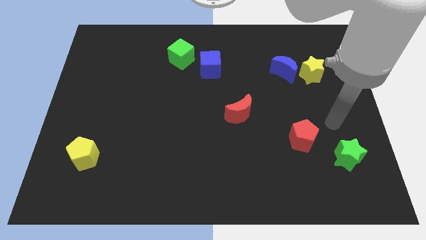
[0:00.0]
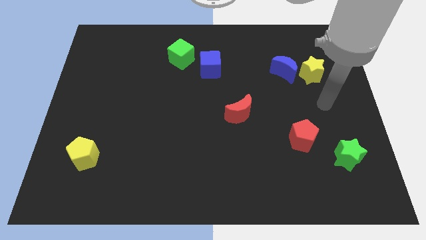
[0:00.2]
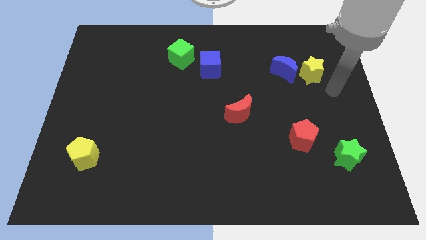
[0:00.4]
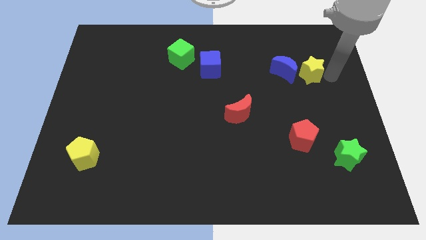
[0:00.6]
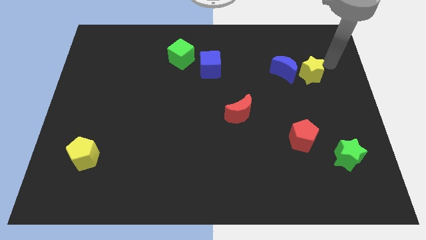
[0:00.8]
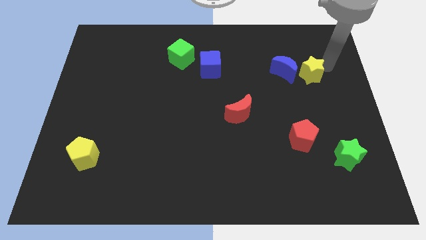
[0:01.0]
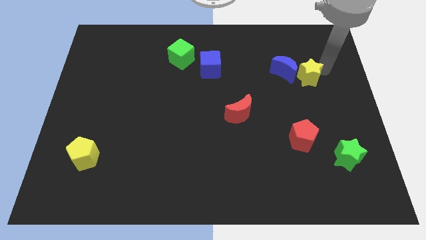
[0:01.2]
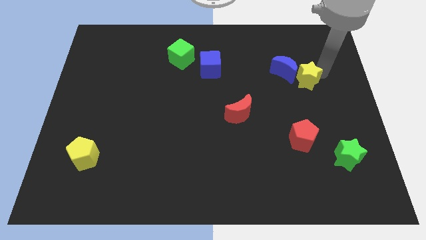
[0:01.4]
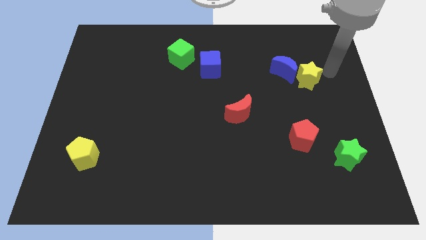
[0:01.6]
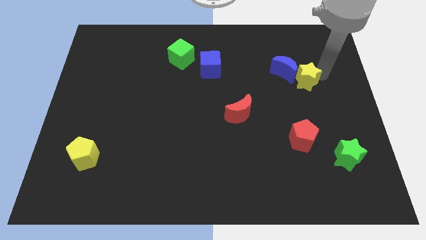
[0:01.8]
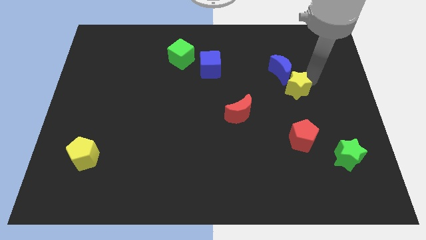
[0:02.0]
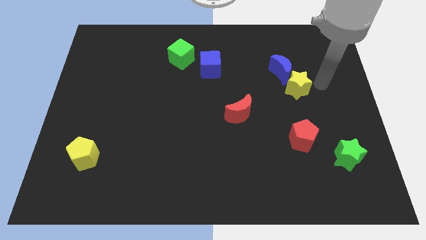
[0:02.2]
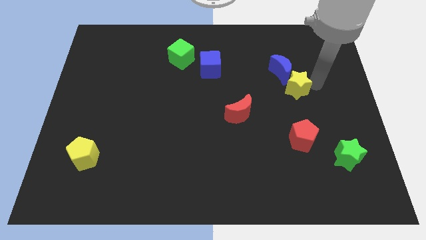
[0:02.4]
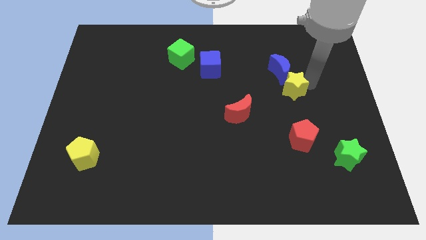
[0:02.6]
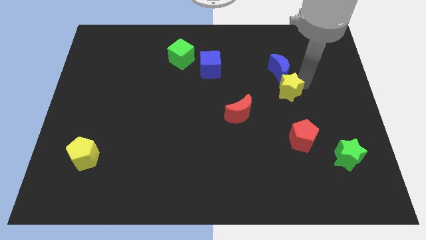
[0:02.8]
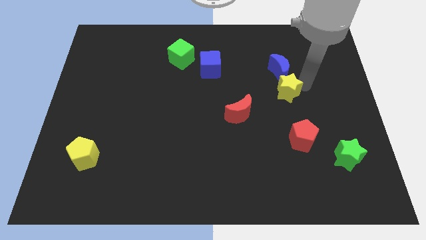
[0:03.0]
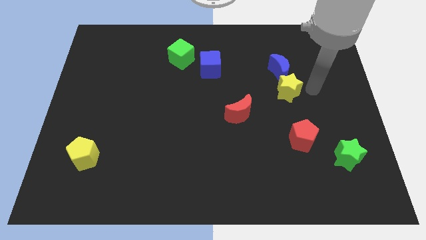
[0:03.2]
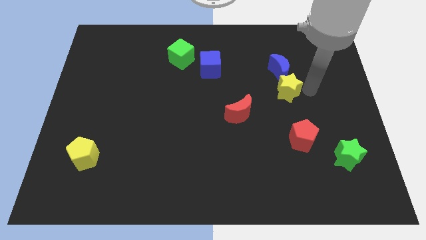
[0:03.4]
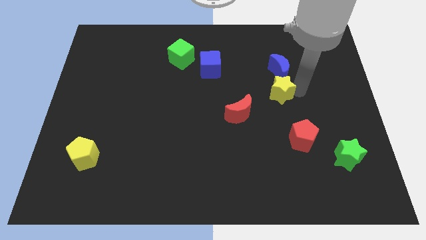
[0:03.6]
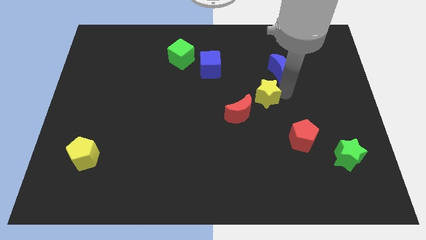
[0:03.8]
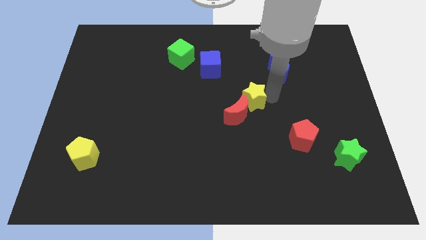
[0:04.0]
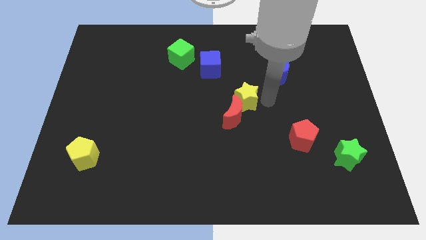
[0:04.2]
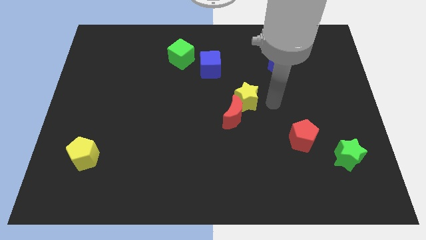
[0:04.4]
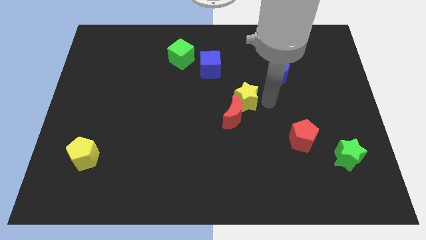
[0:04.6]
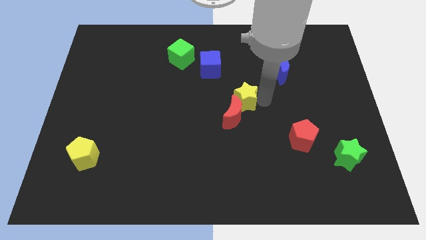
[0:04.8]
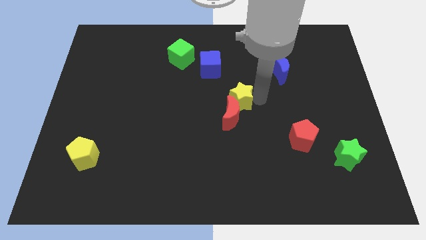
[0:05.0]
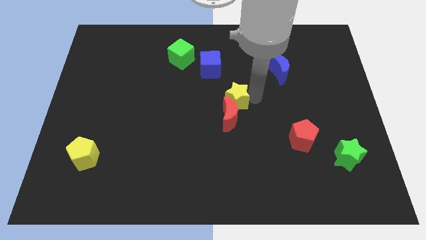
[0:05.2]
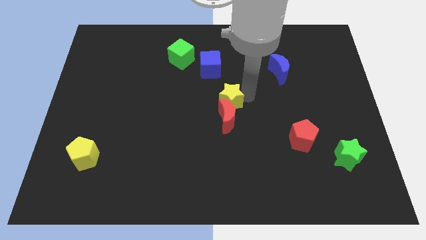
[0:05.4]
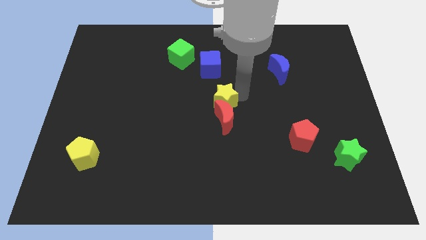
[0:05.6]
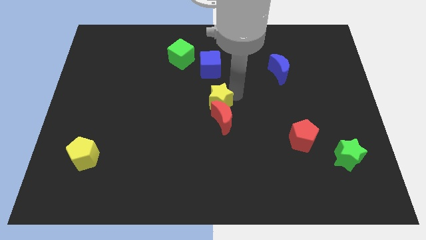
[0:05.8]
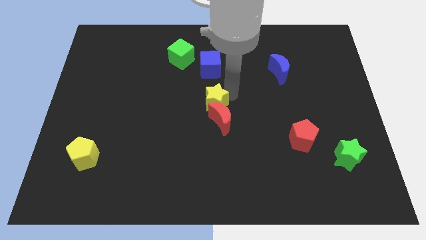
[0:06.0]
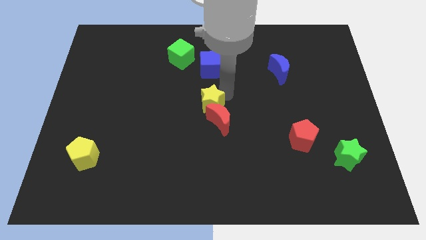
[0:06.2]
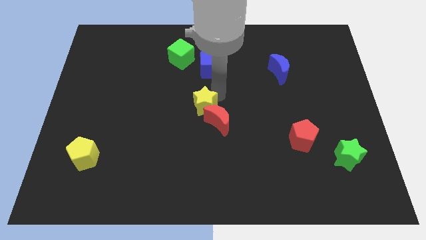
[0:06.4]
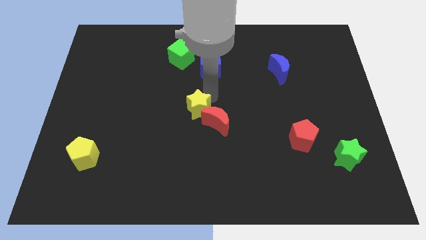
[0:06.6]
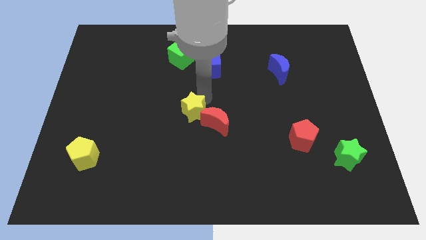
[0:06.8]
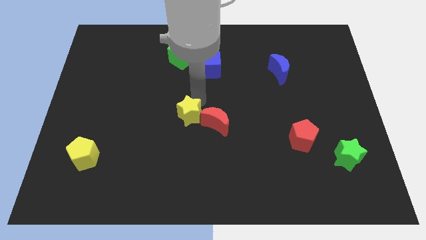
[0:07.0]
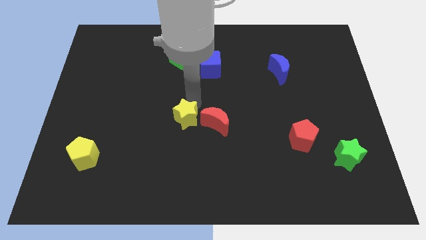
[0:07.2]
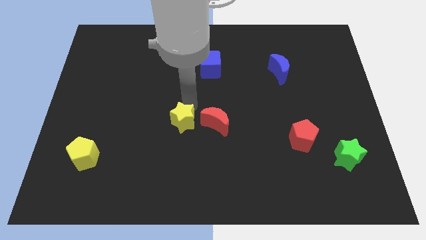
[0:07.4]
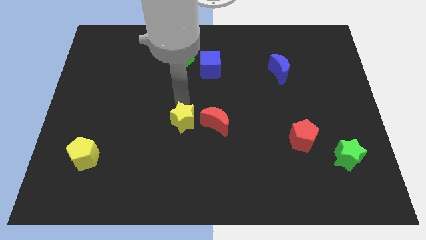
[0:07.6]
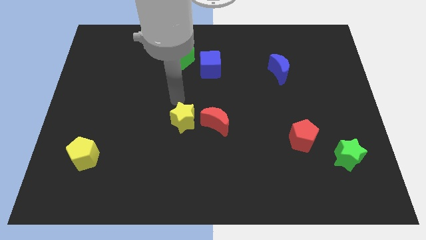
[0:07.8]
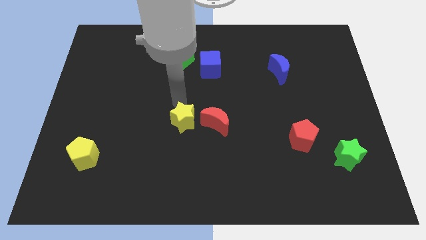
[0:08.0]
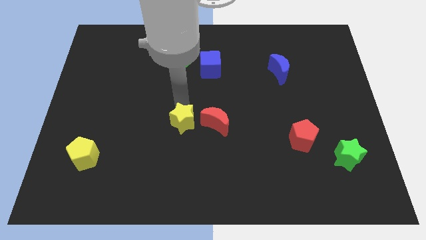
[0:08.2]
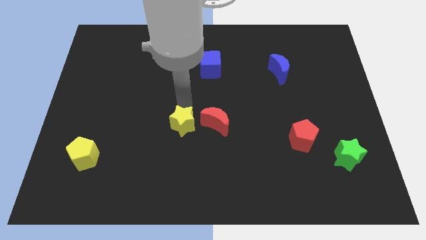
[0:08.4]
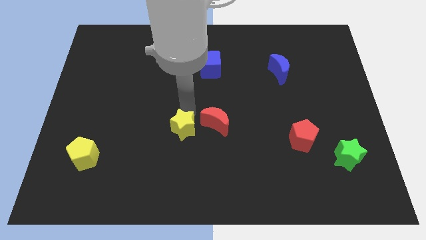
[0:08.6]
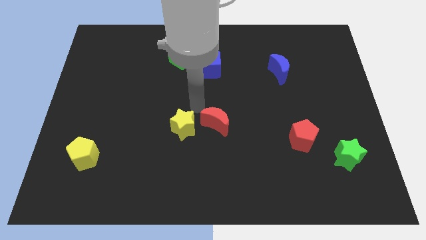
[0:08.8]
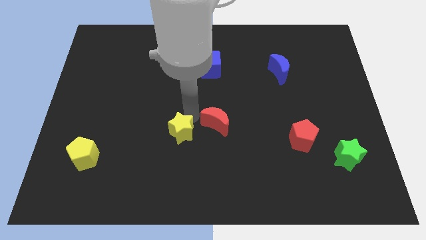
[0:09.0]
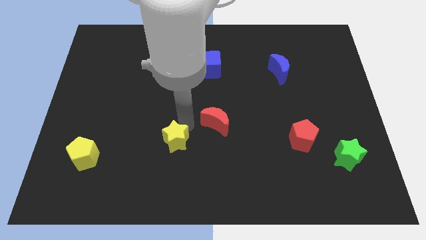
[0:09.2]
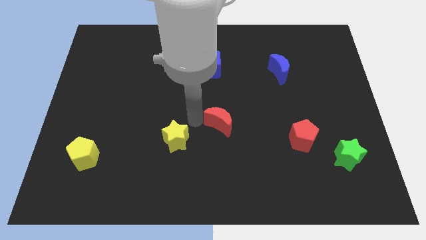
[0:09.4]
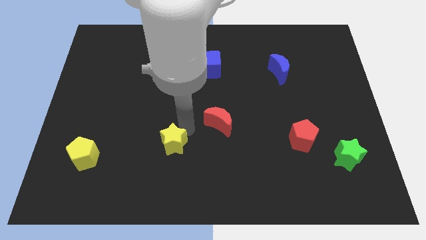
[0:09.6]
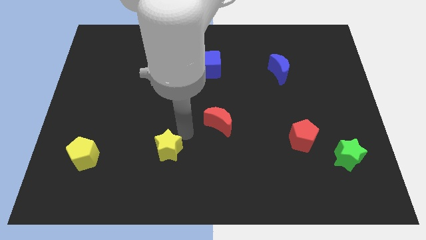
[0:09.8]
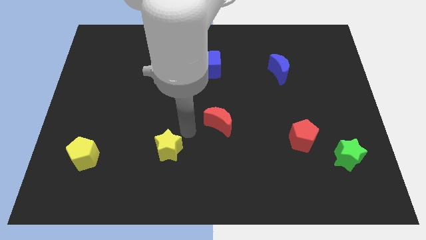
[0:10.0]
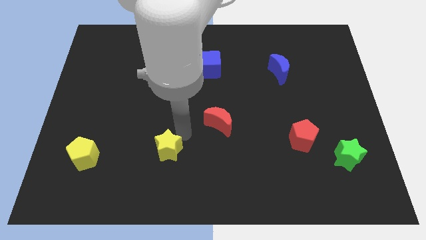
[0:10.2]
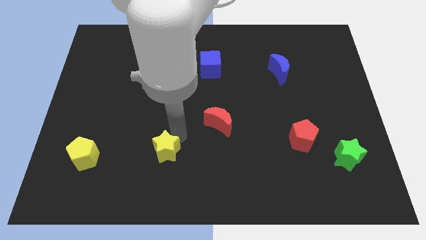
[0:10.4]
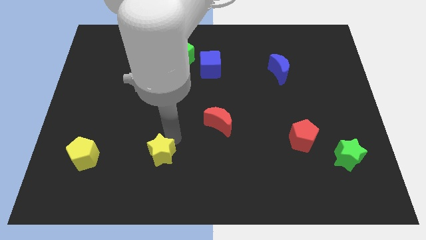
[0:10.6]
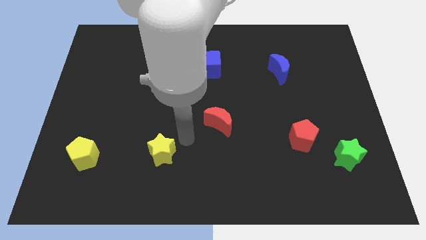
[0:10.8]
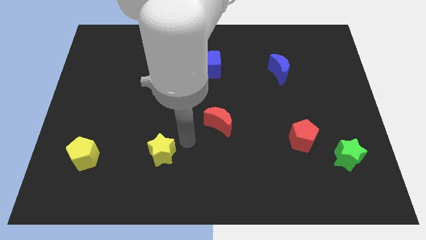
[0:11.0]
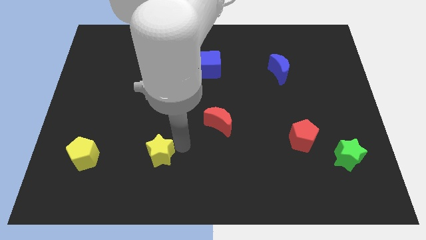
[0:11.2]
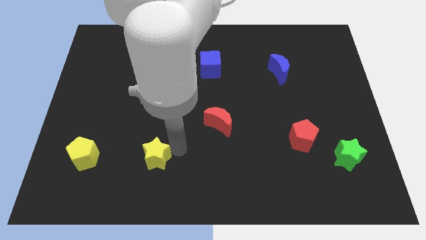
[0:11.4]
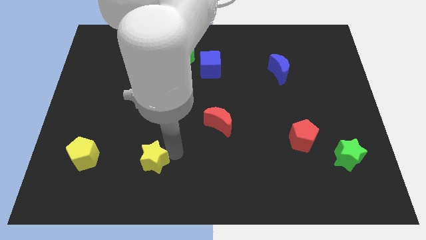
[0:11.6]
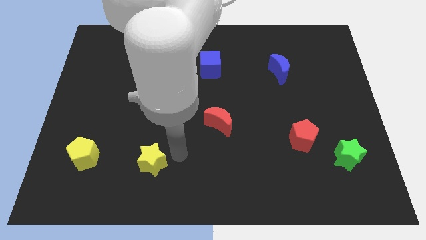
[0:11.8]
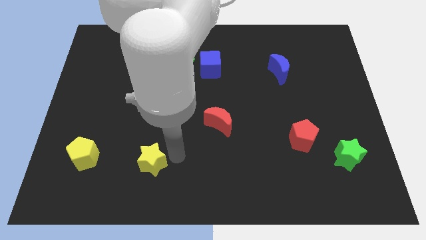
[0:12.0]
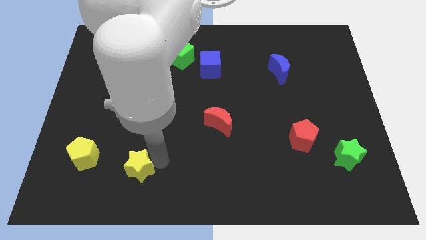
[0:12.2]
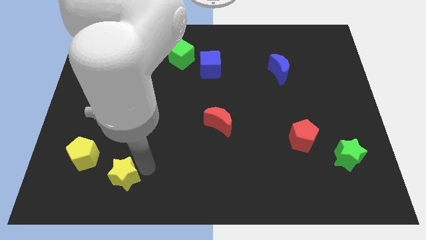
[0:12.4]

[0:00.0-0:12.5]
put the yellow star diagonally down and to the right of the yellow pentagon

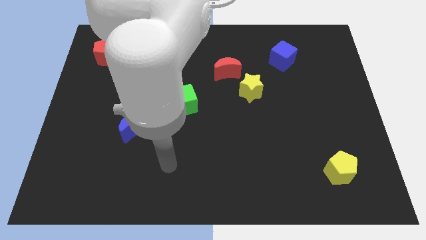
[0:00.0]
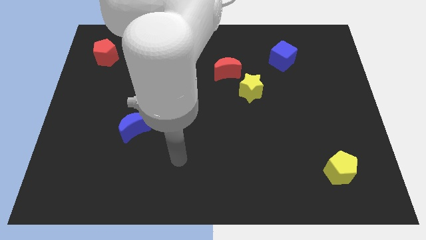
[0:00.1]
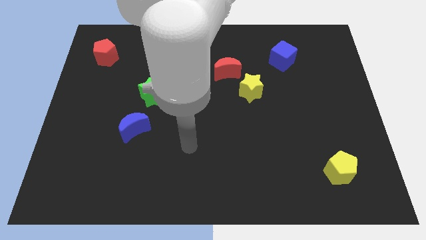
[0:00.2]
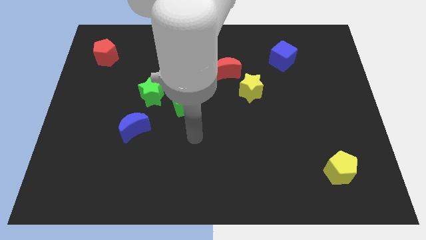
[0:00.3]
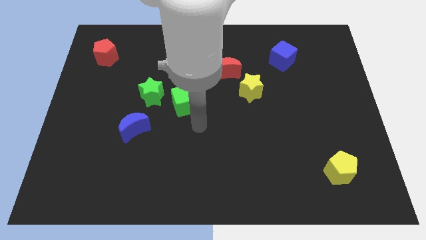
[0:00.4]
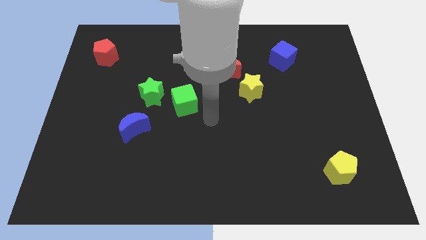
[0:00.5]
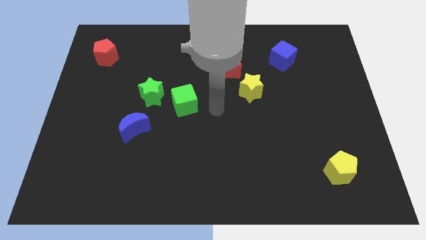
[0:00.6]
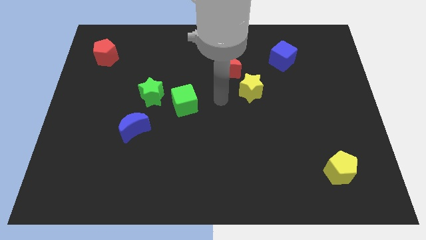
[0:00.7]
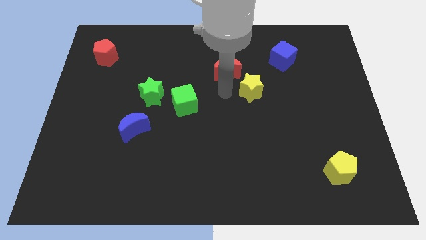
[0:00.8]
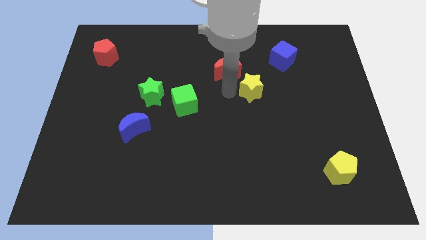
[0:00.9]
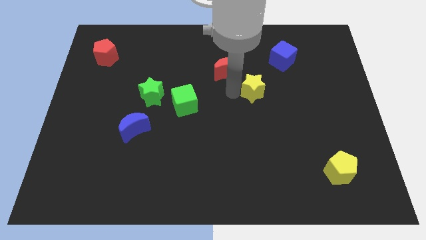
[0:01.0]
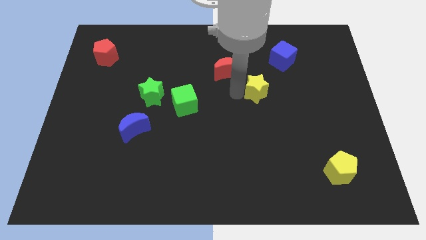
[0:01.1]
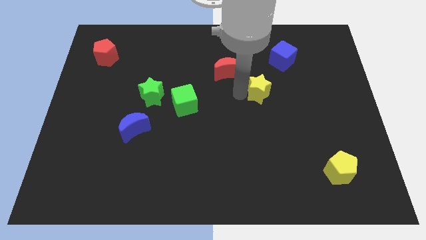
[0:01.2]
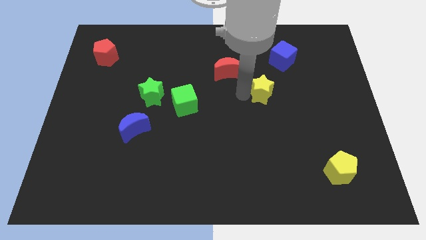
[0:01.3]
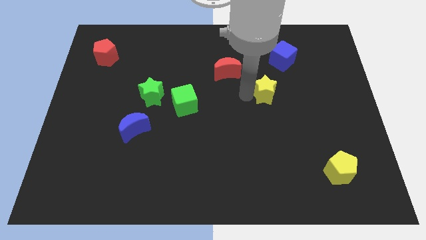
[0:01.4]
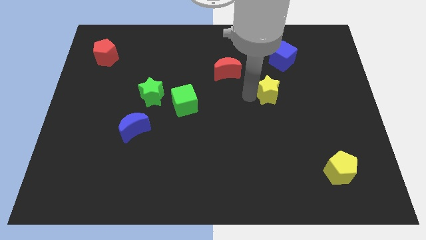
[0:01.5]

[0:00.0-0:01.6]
slide the yellow star to the bottom side of the blue cube

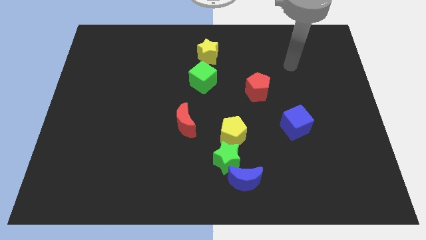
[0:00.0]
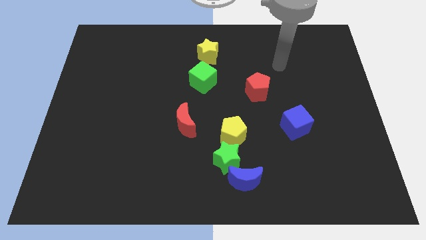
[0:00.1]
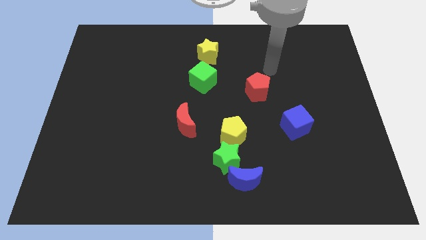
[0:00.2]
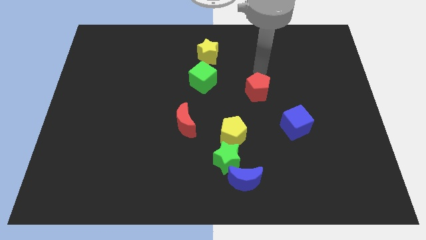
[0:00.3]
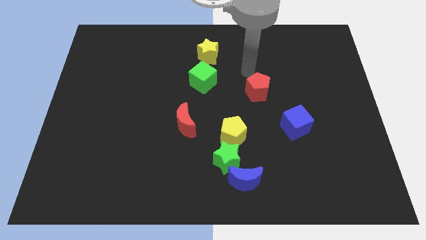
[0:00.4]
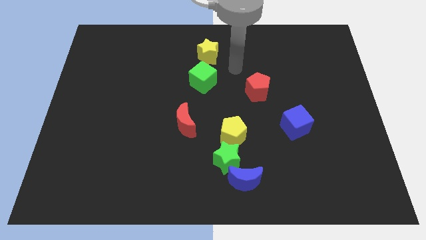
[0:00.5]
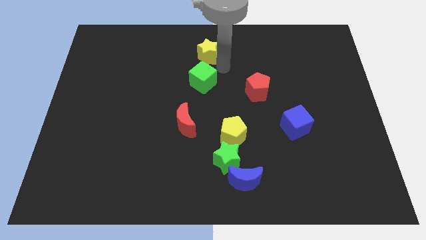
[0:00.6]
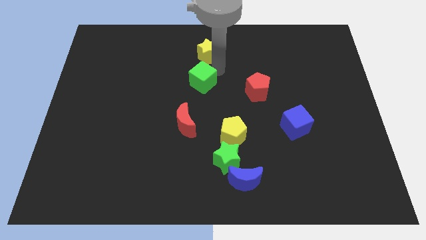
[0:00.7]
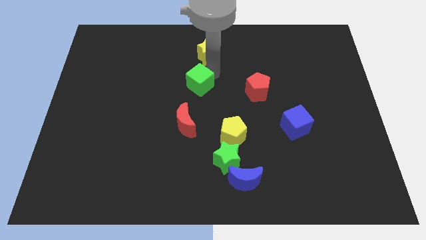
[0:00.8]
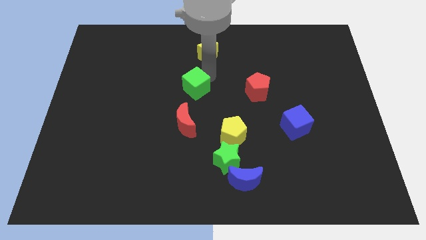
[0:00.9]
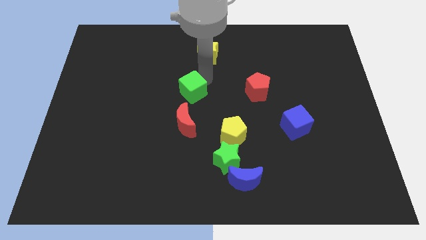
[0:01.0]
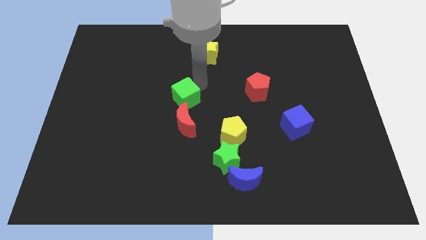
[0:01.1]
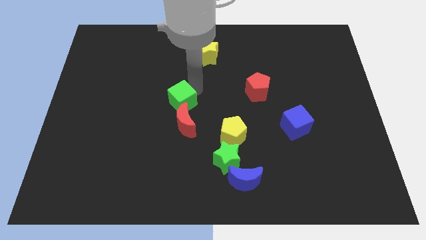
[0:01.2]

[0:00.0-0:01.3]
put the green cube to the top left of the red moon
